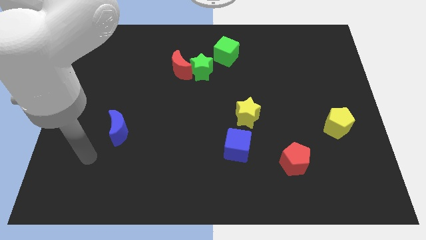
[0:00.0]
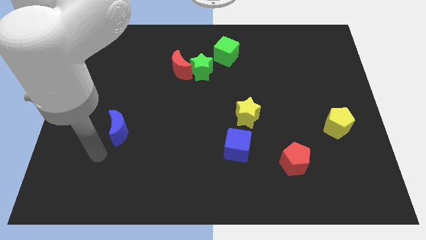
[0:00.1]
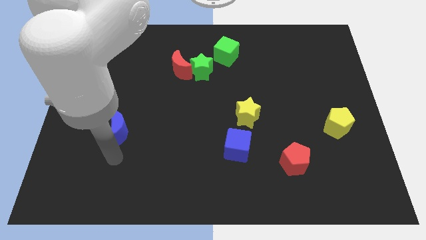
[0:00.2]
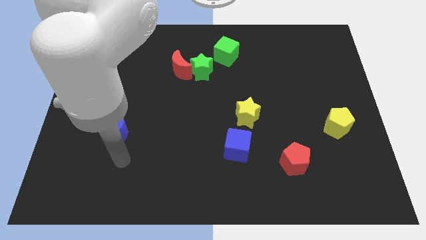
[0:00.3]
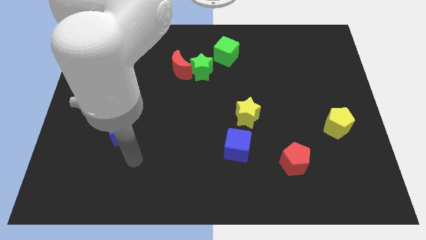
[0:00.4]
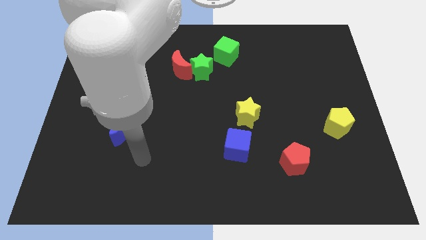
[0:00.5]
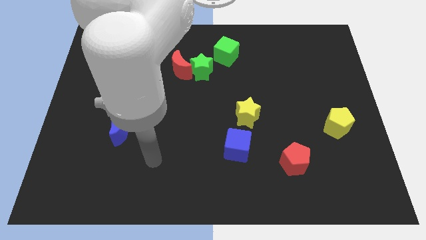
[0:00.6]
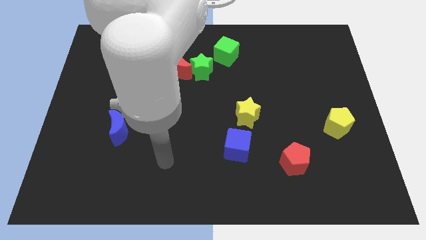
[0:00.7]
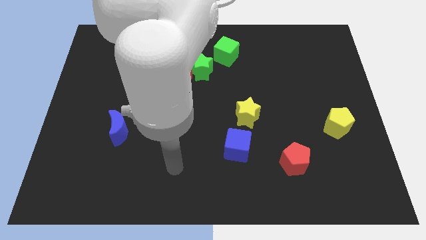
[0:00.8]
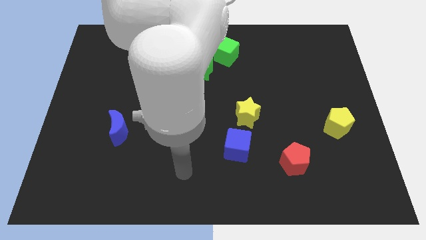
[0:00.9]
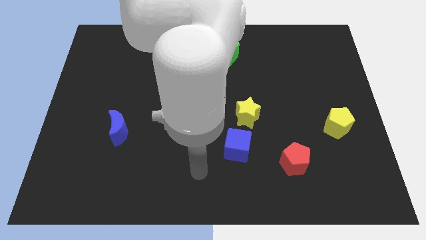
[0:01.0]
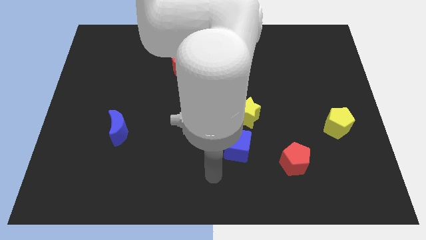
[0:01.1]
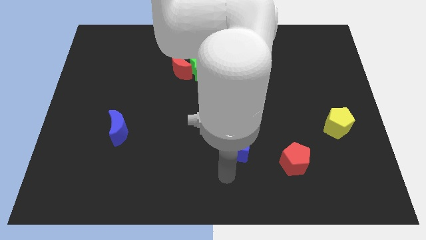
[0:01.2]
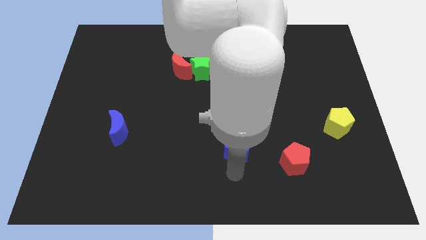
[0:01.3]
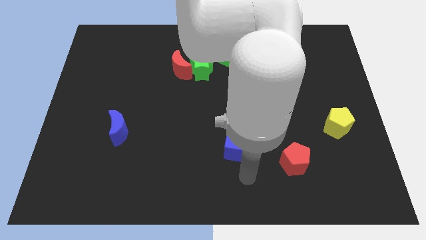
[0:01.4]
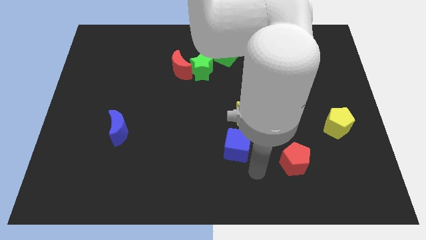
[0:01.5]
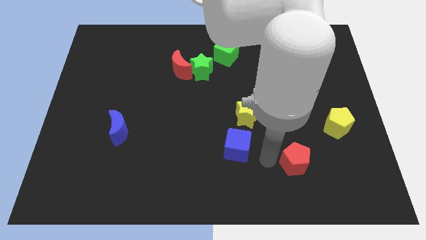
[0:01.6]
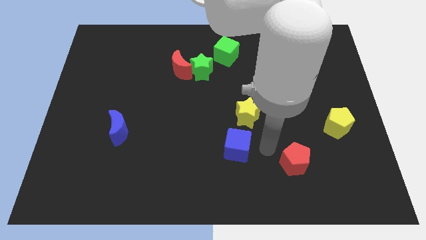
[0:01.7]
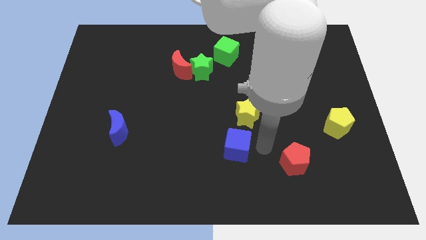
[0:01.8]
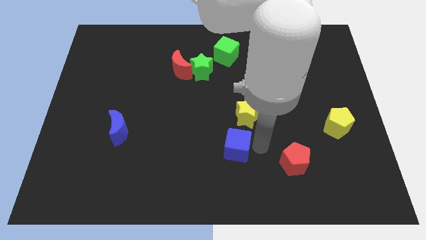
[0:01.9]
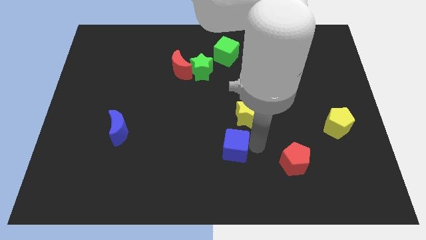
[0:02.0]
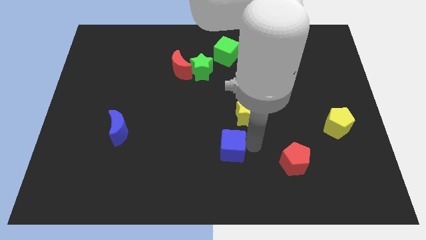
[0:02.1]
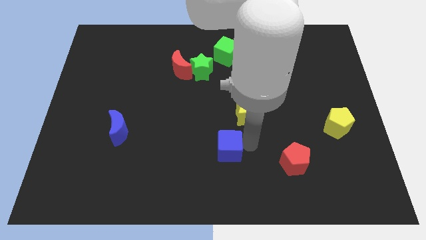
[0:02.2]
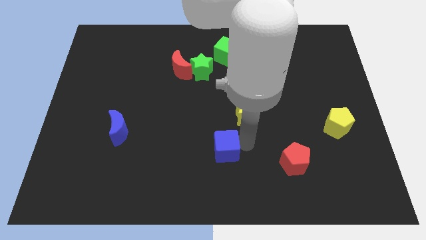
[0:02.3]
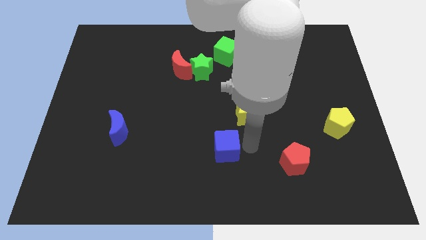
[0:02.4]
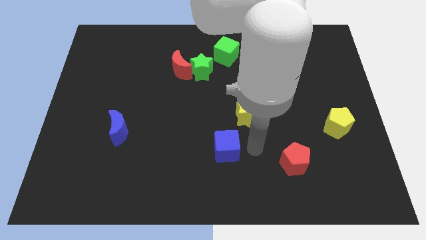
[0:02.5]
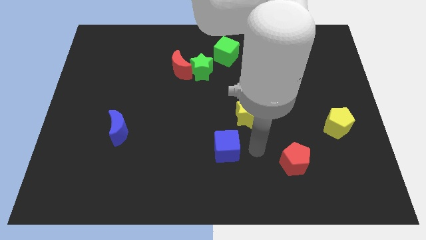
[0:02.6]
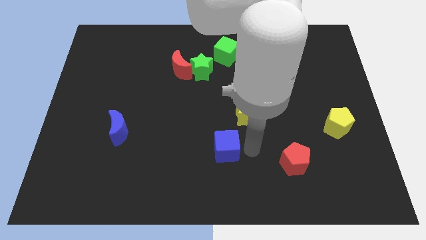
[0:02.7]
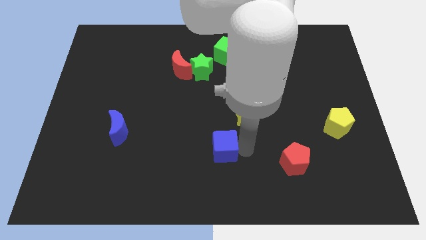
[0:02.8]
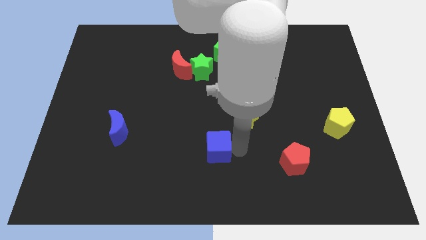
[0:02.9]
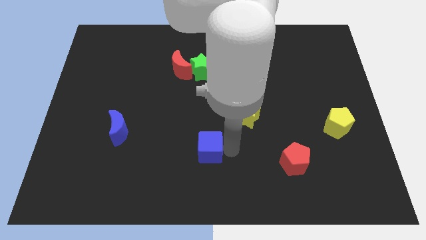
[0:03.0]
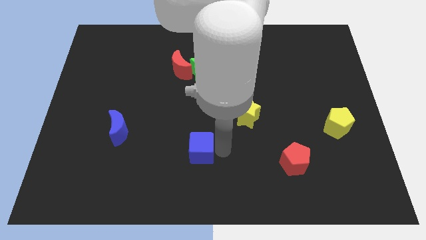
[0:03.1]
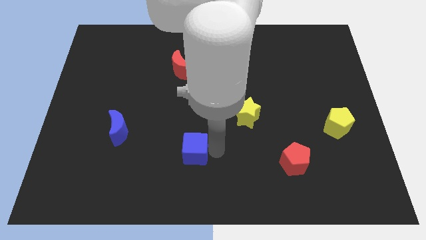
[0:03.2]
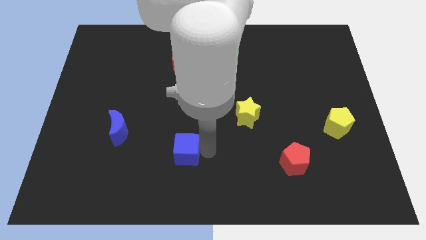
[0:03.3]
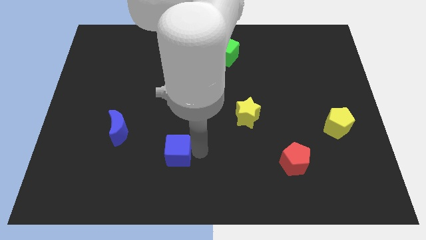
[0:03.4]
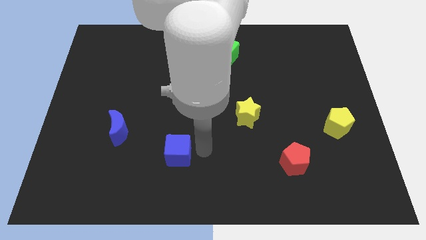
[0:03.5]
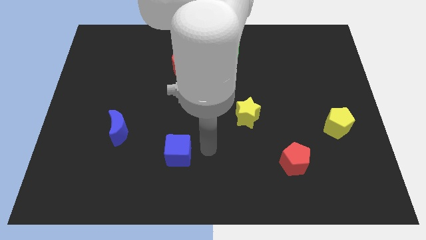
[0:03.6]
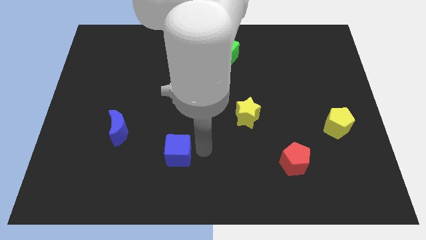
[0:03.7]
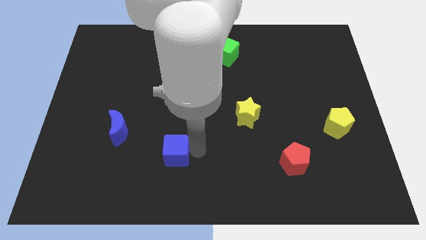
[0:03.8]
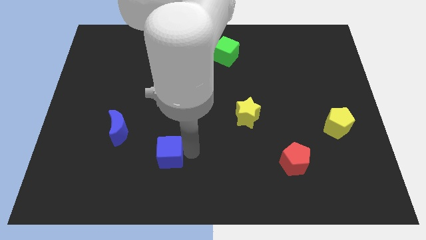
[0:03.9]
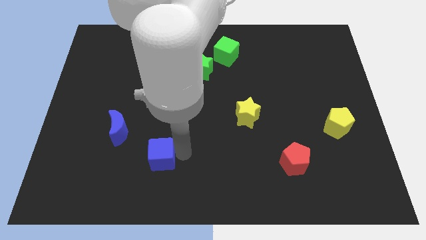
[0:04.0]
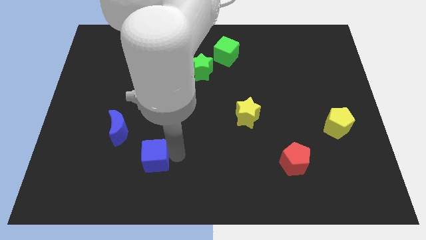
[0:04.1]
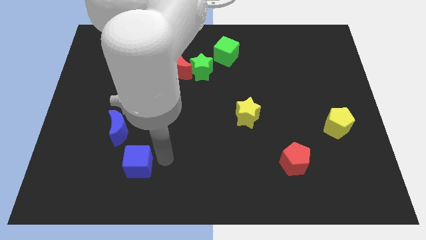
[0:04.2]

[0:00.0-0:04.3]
slide the blue cube left

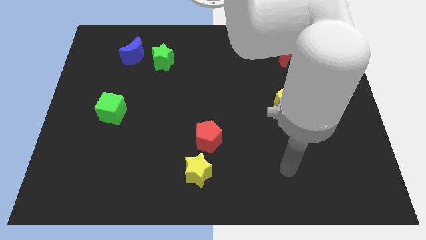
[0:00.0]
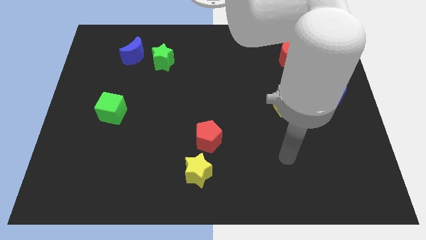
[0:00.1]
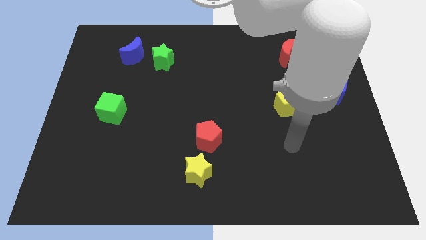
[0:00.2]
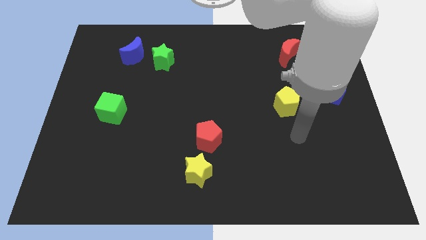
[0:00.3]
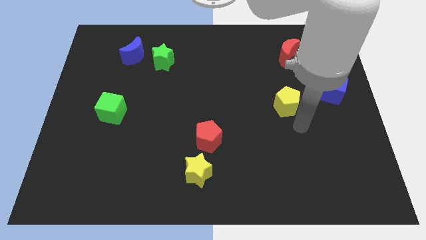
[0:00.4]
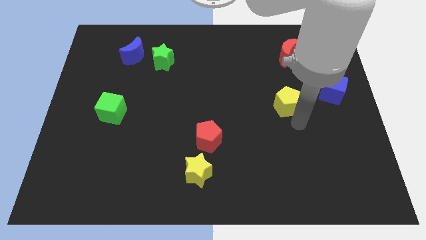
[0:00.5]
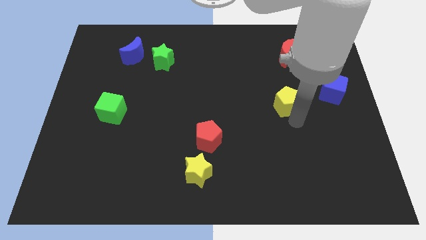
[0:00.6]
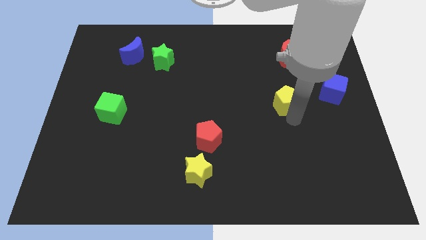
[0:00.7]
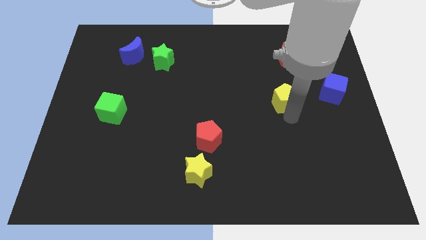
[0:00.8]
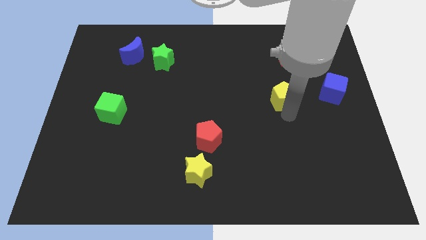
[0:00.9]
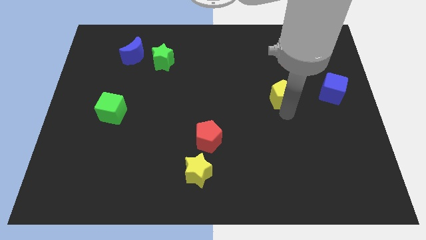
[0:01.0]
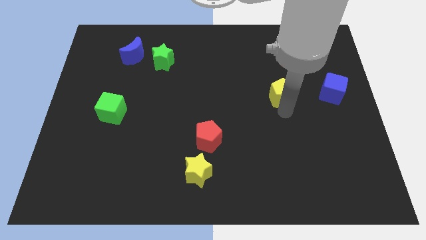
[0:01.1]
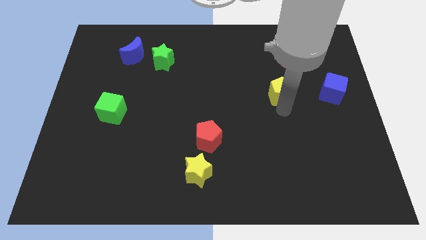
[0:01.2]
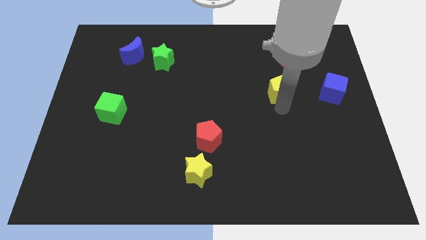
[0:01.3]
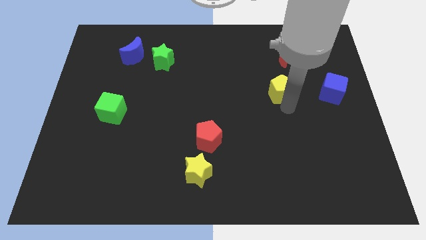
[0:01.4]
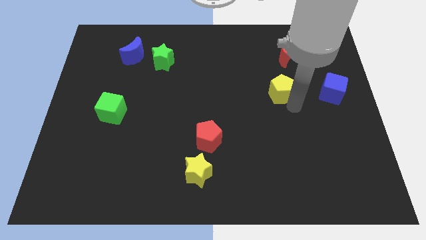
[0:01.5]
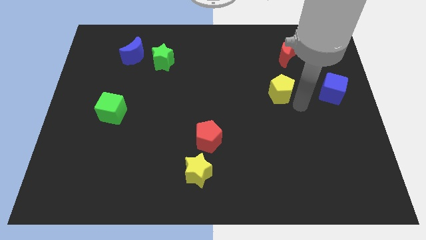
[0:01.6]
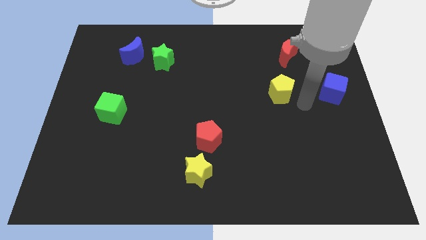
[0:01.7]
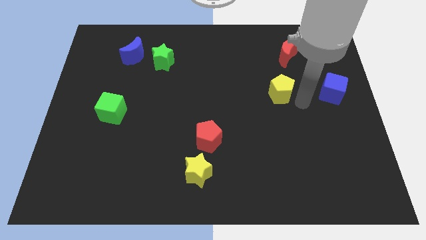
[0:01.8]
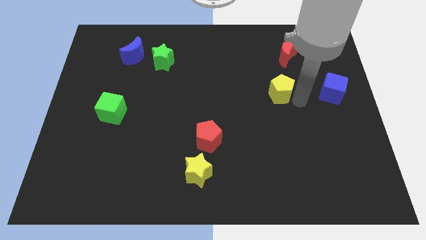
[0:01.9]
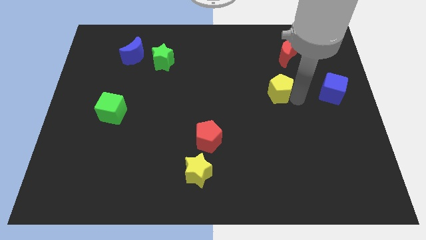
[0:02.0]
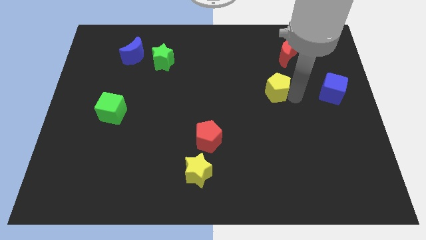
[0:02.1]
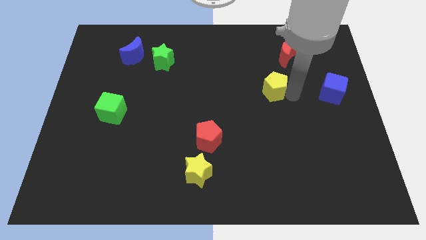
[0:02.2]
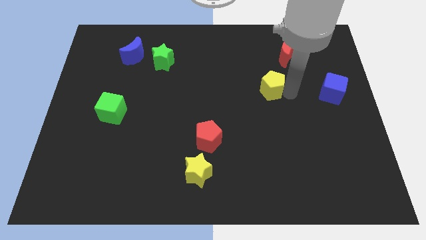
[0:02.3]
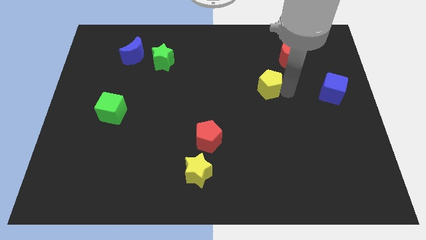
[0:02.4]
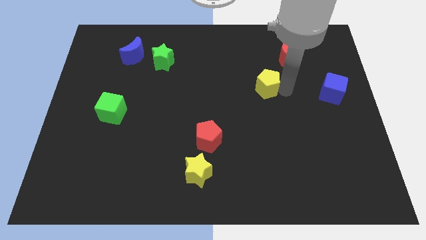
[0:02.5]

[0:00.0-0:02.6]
slightly move the yellow pentagon upwards and to the left diagonally

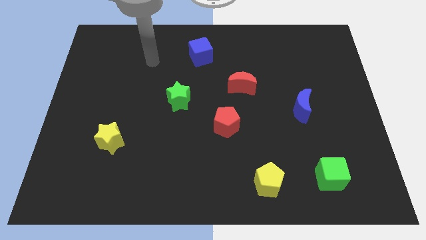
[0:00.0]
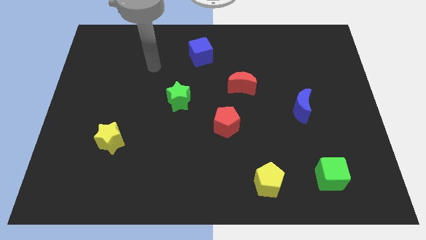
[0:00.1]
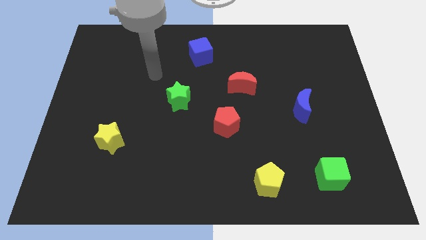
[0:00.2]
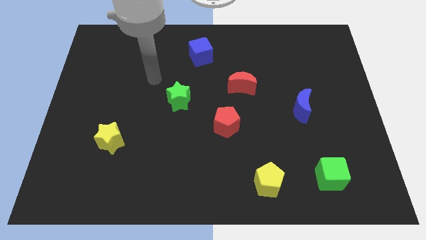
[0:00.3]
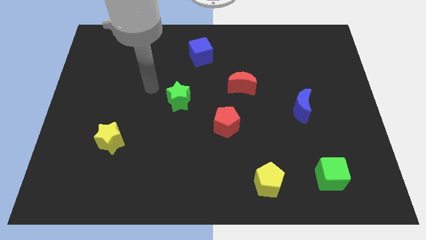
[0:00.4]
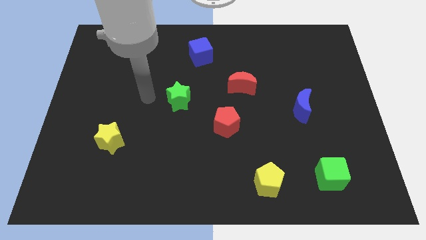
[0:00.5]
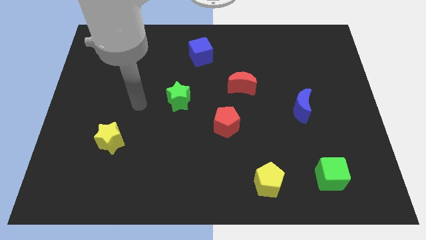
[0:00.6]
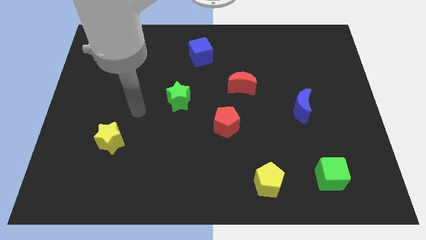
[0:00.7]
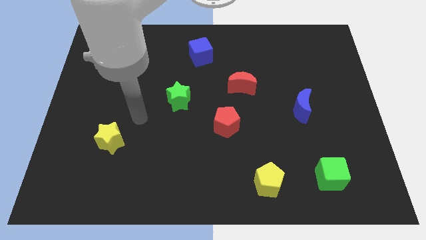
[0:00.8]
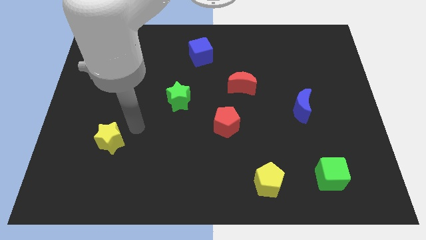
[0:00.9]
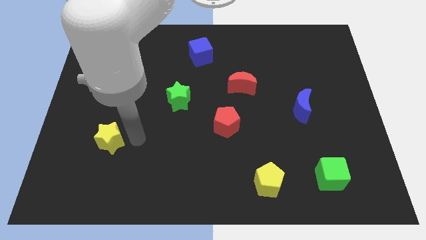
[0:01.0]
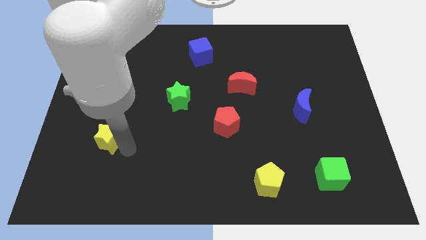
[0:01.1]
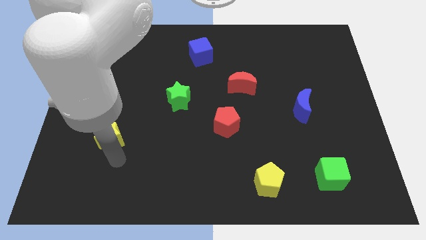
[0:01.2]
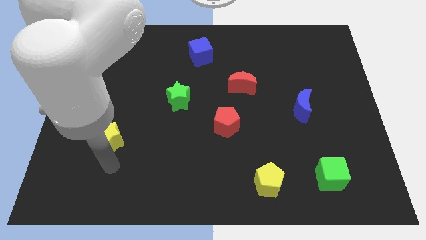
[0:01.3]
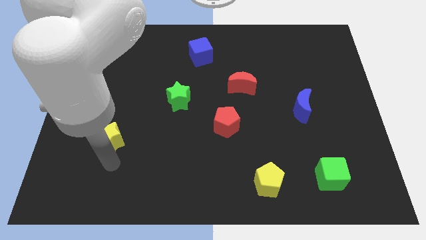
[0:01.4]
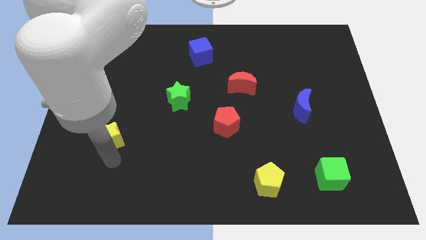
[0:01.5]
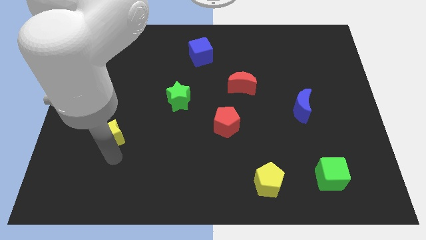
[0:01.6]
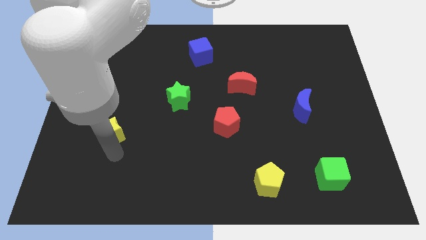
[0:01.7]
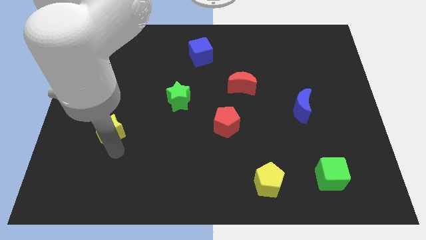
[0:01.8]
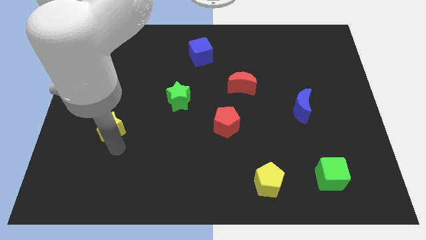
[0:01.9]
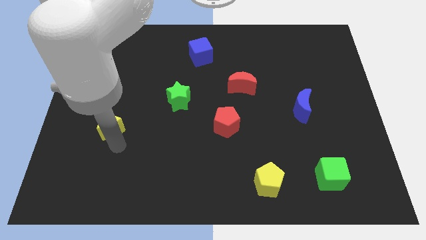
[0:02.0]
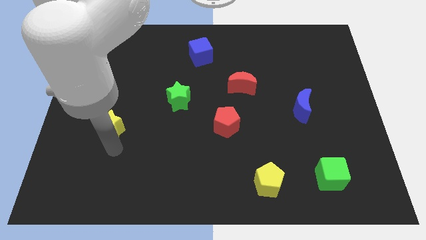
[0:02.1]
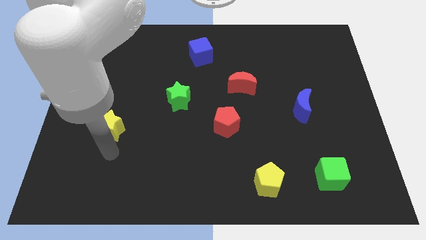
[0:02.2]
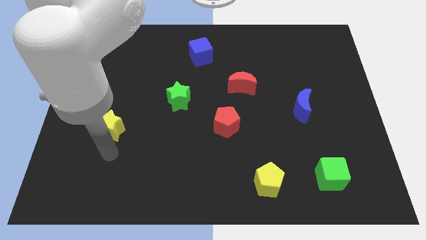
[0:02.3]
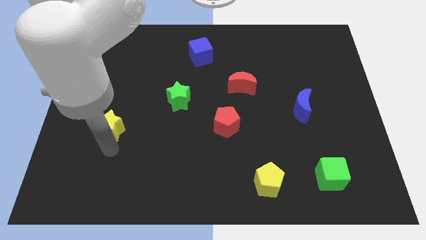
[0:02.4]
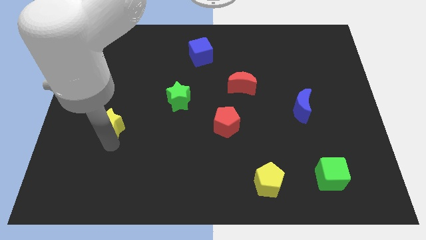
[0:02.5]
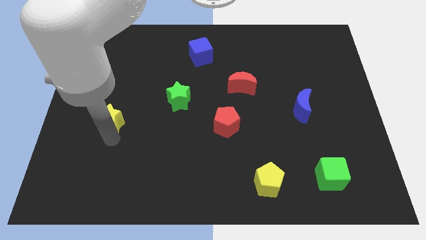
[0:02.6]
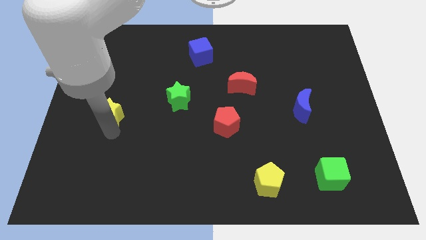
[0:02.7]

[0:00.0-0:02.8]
push the yellow star a bit up
